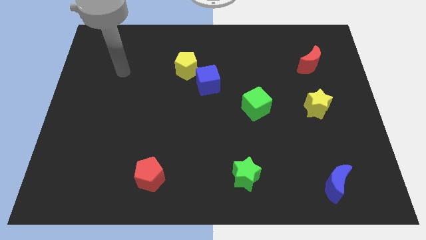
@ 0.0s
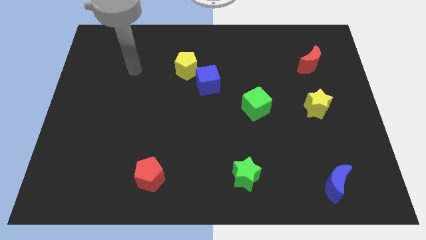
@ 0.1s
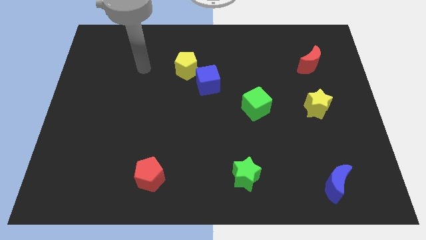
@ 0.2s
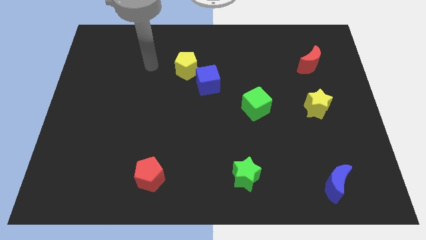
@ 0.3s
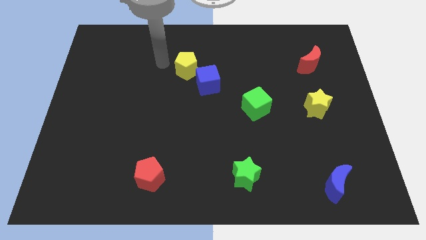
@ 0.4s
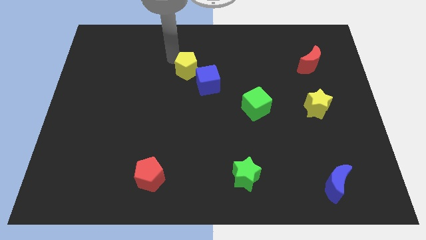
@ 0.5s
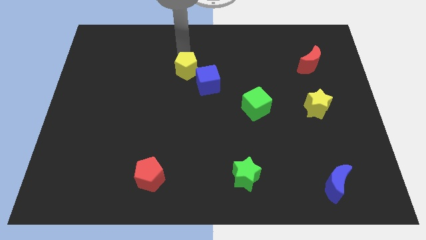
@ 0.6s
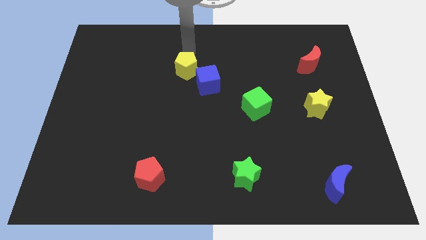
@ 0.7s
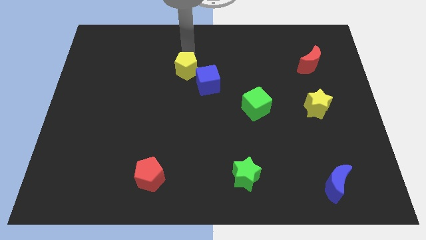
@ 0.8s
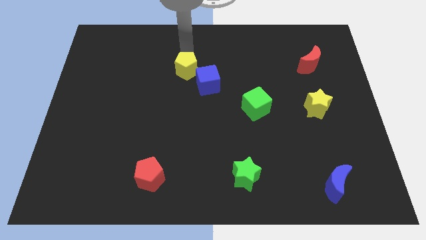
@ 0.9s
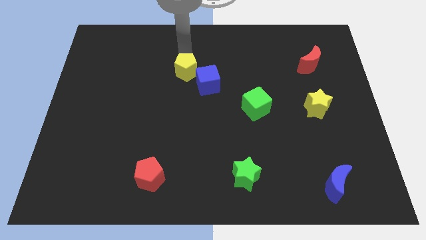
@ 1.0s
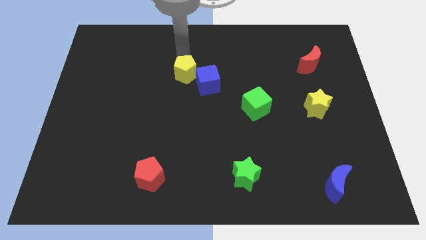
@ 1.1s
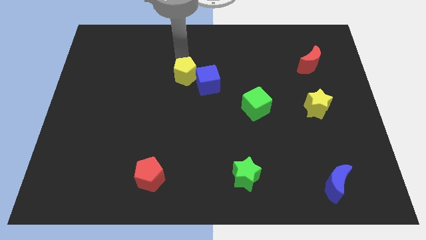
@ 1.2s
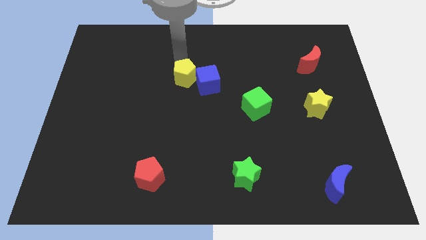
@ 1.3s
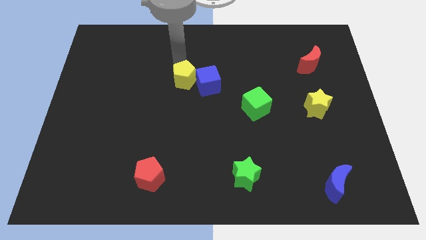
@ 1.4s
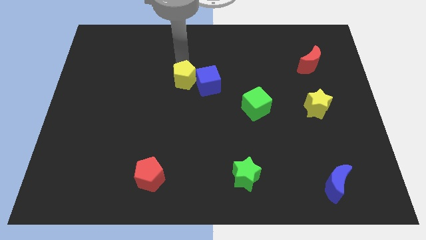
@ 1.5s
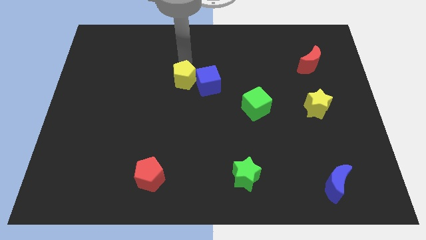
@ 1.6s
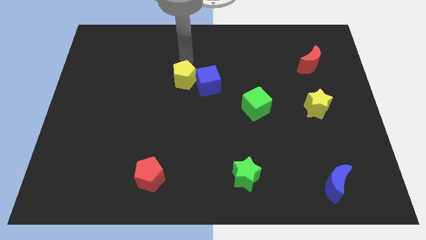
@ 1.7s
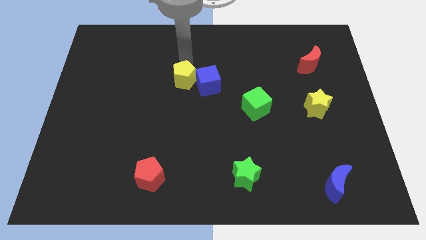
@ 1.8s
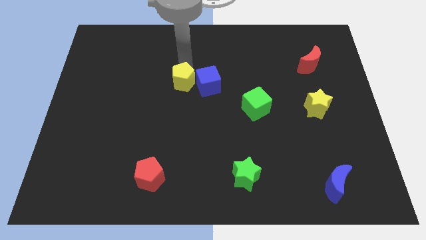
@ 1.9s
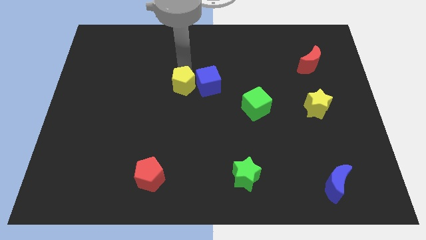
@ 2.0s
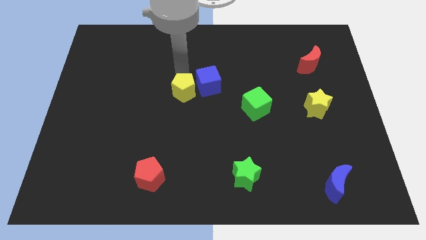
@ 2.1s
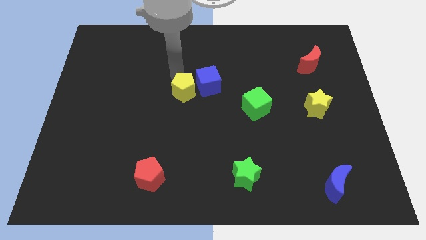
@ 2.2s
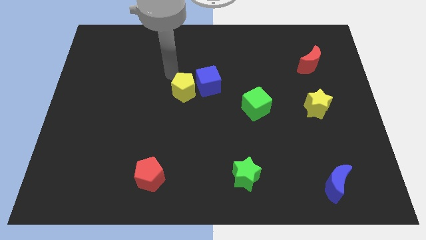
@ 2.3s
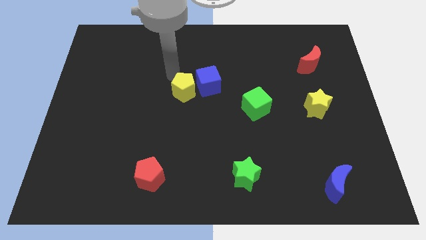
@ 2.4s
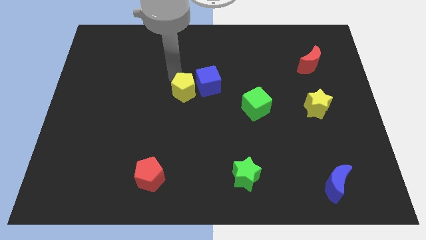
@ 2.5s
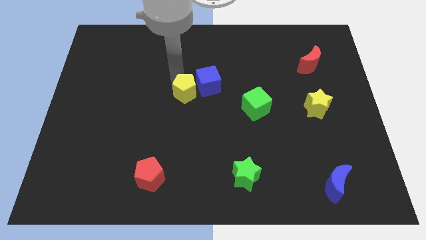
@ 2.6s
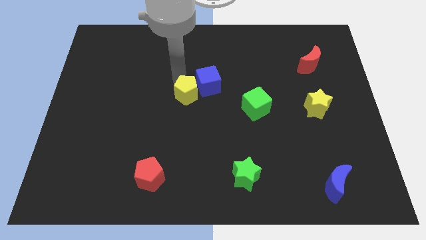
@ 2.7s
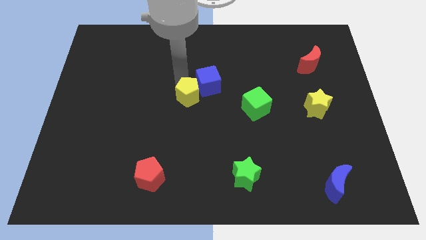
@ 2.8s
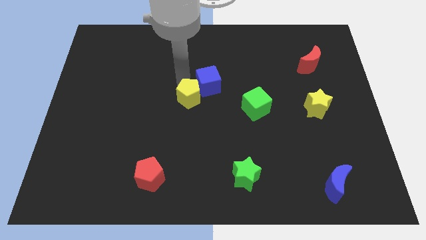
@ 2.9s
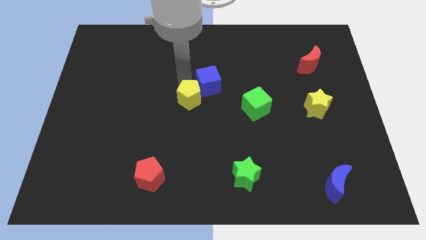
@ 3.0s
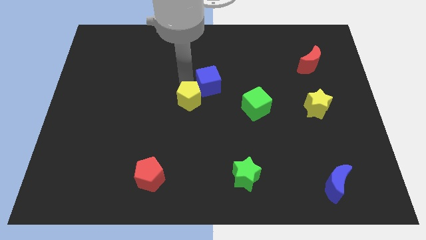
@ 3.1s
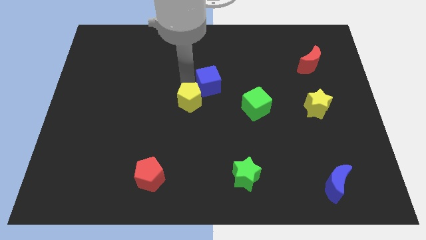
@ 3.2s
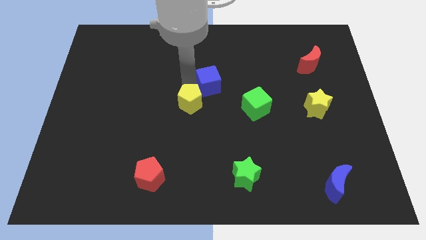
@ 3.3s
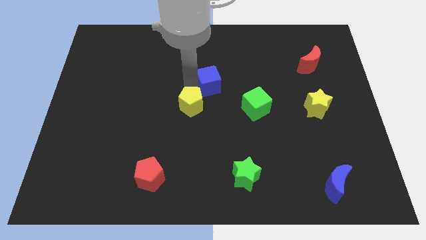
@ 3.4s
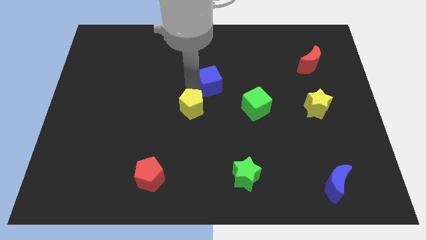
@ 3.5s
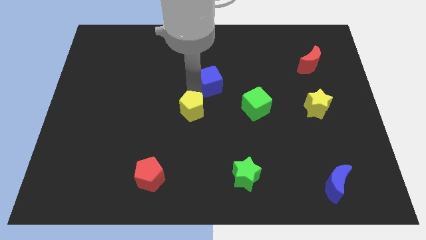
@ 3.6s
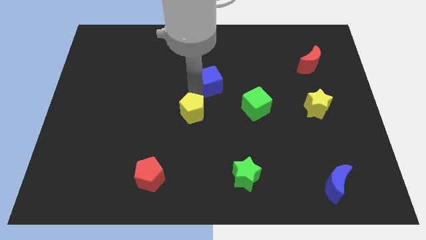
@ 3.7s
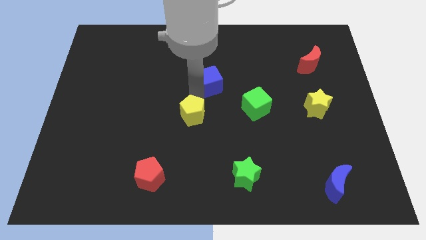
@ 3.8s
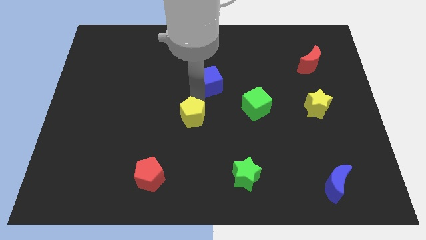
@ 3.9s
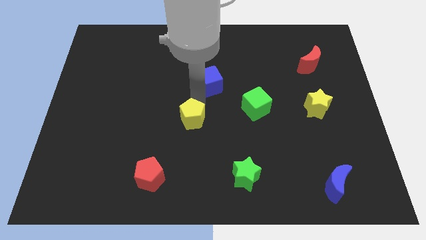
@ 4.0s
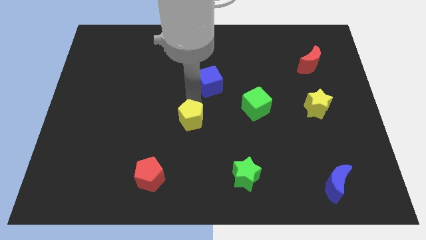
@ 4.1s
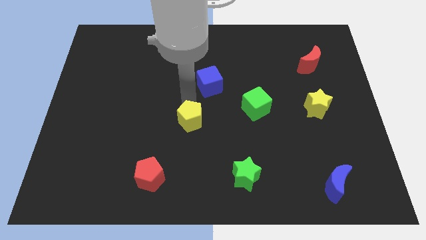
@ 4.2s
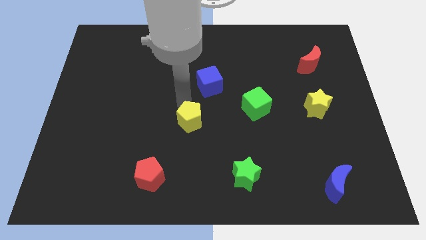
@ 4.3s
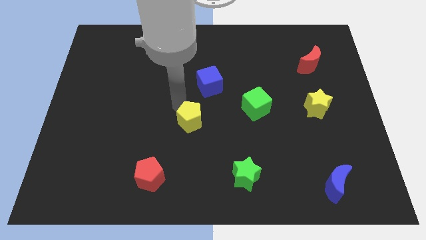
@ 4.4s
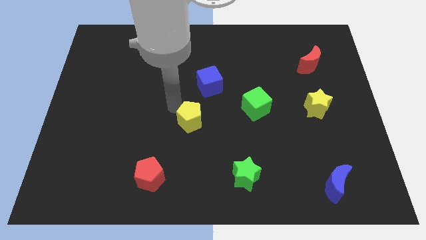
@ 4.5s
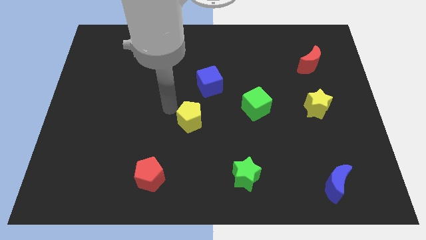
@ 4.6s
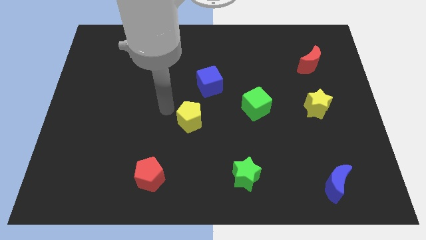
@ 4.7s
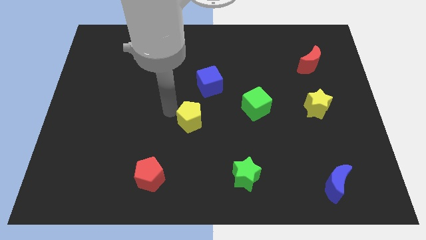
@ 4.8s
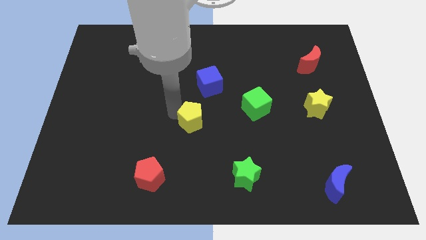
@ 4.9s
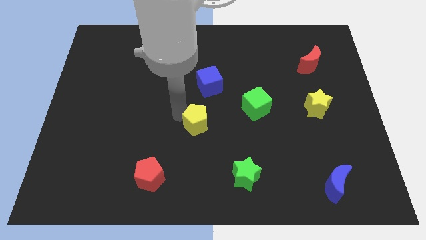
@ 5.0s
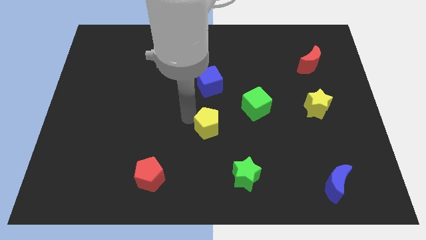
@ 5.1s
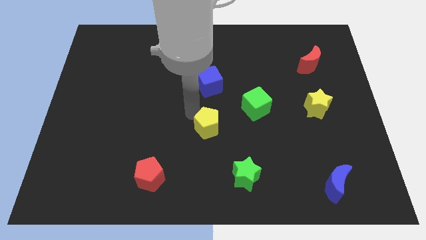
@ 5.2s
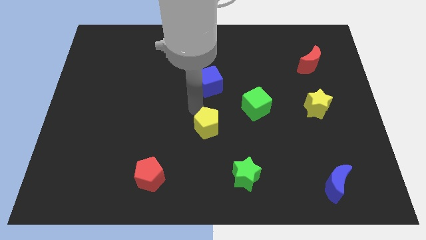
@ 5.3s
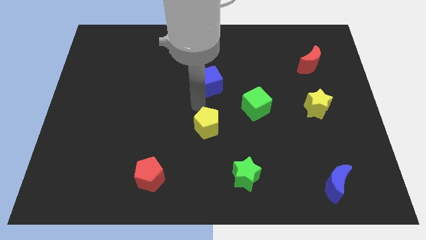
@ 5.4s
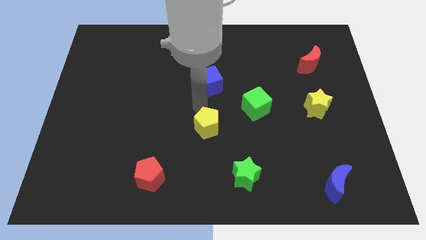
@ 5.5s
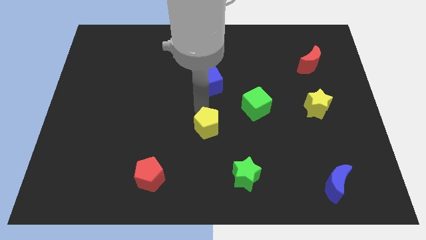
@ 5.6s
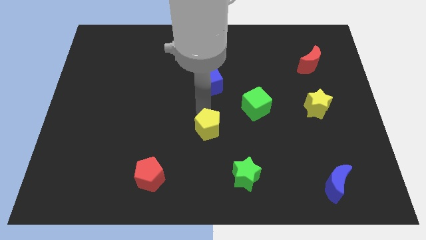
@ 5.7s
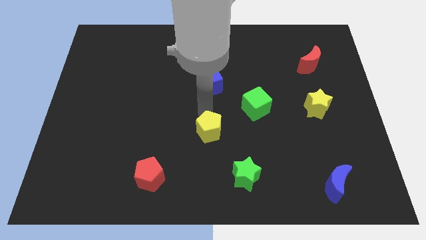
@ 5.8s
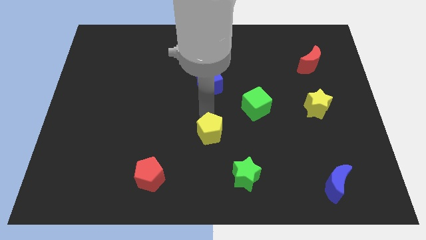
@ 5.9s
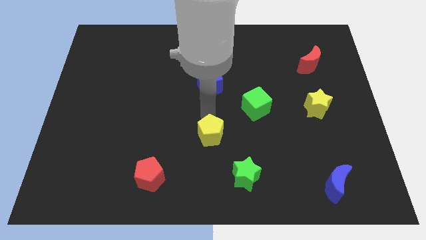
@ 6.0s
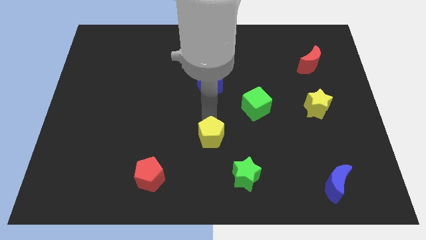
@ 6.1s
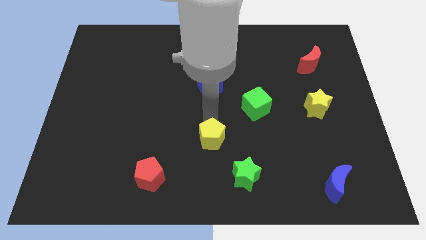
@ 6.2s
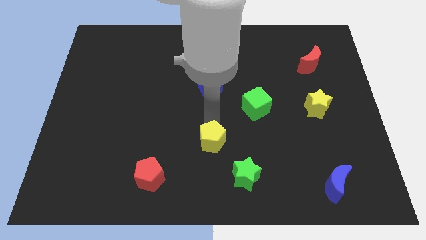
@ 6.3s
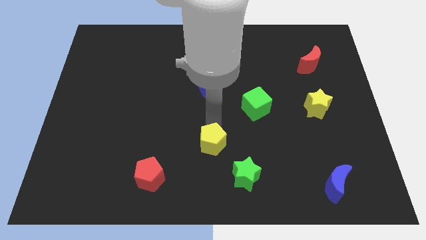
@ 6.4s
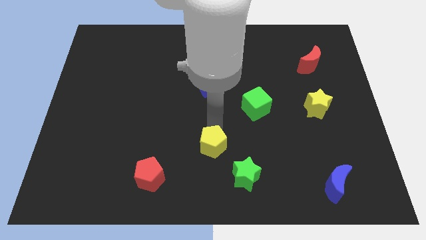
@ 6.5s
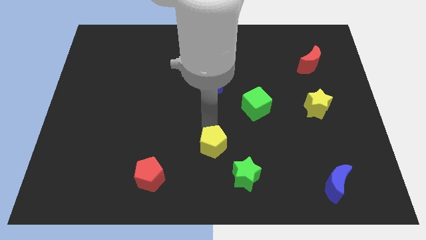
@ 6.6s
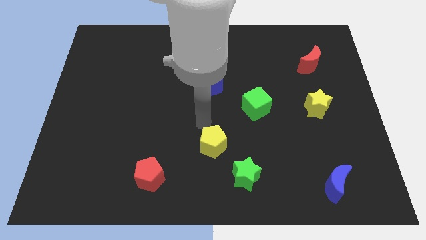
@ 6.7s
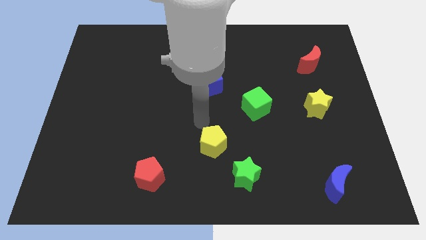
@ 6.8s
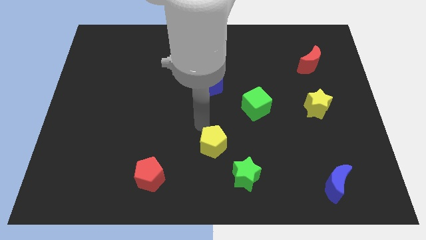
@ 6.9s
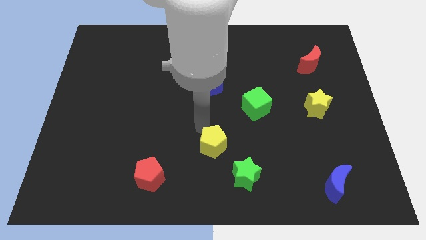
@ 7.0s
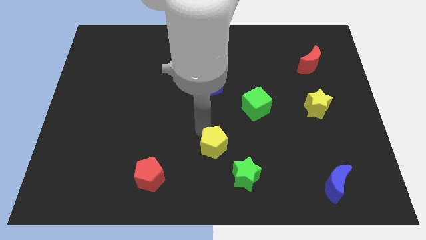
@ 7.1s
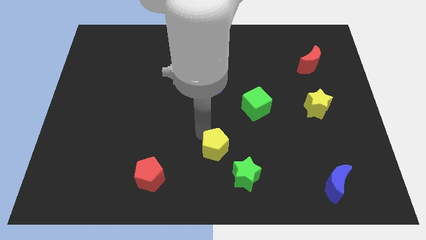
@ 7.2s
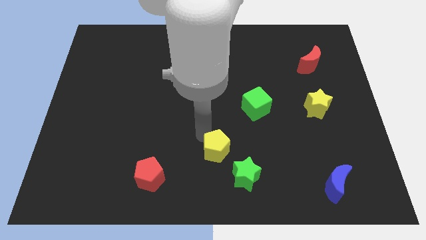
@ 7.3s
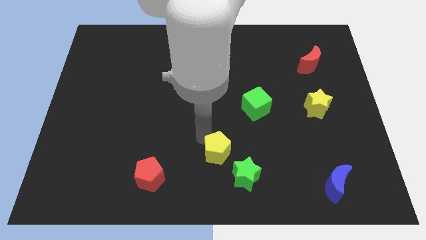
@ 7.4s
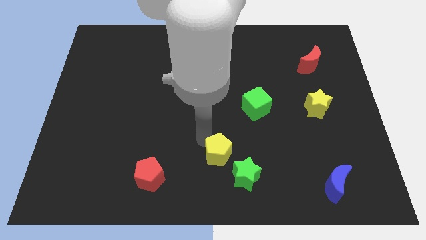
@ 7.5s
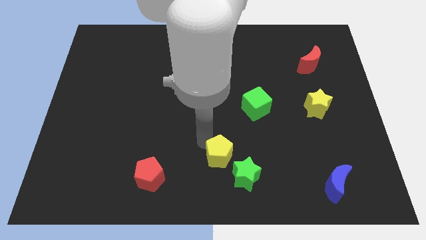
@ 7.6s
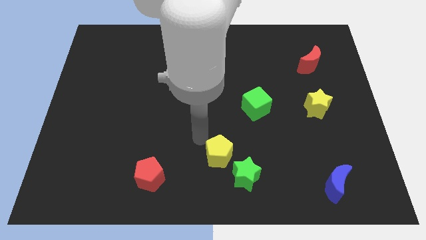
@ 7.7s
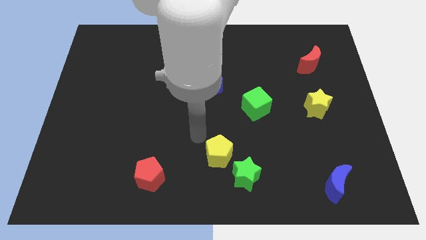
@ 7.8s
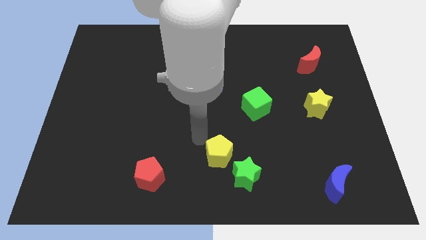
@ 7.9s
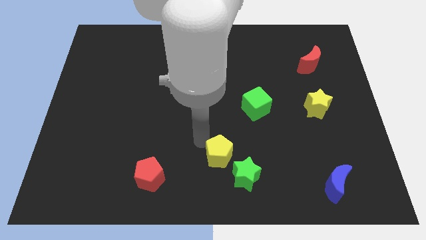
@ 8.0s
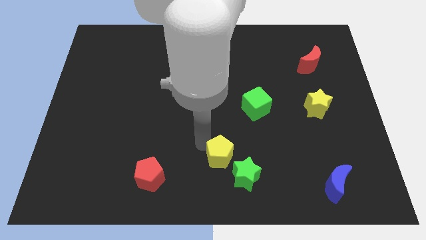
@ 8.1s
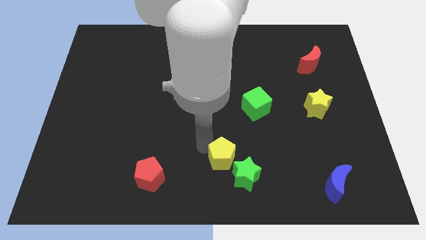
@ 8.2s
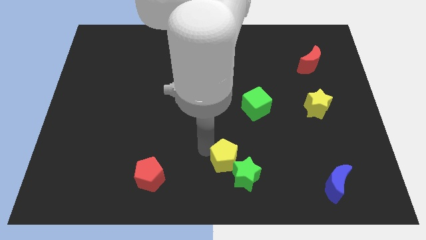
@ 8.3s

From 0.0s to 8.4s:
slide the yellow pentagon towards the green star
